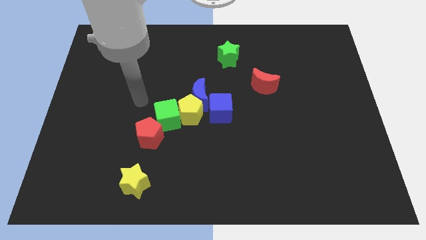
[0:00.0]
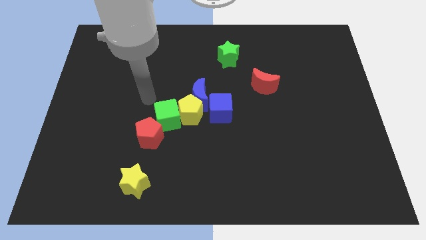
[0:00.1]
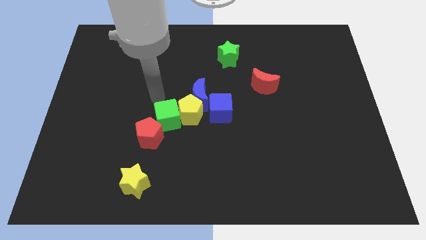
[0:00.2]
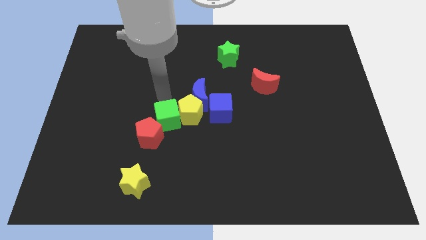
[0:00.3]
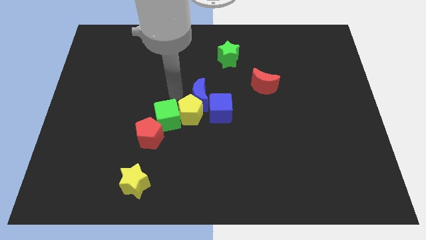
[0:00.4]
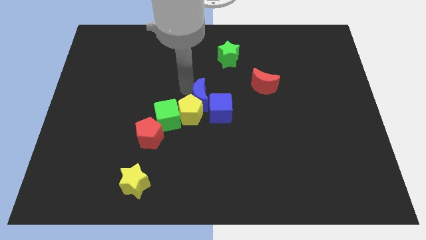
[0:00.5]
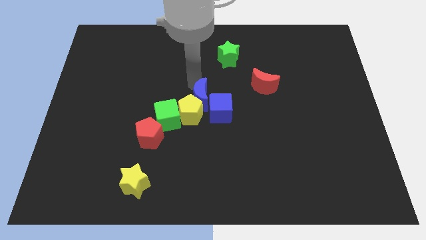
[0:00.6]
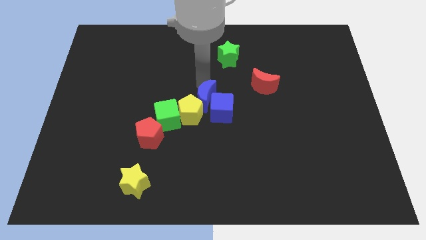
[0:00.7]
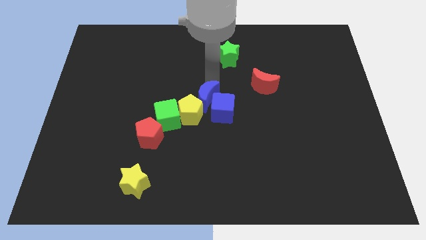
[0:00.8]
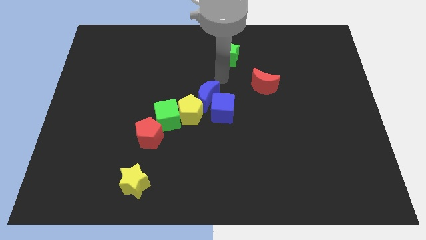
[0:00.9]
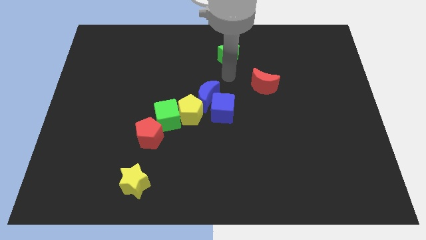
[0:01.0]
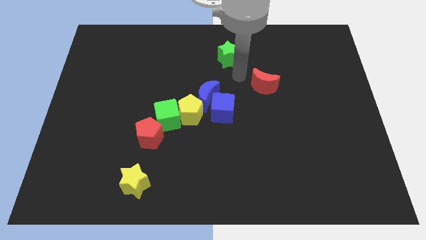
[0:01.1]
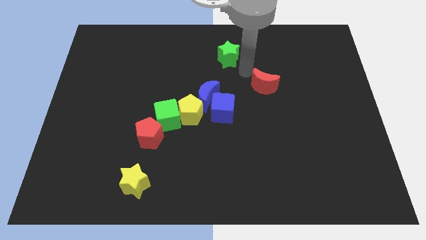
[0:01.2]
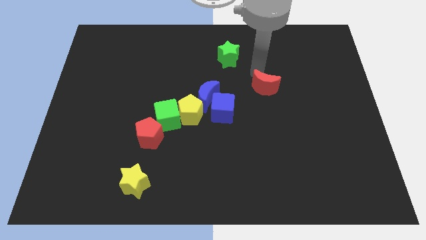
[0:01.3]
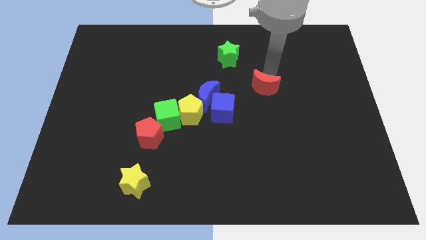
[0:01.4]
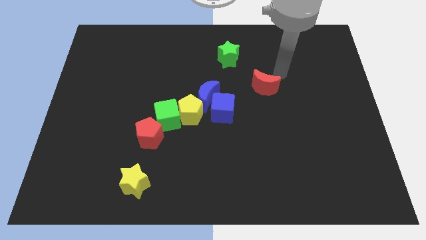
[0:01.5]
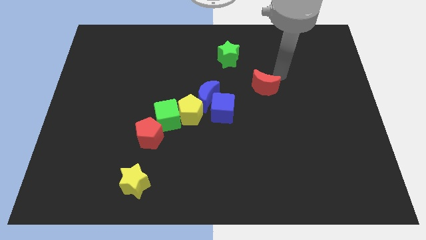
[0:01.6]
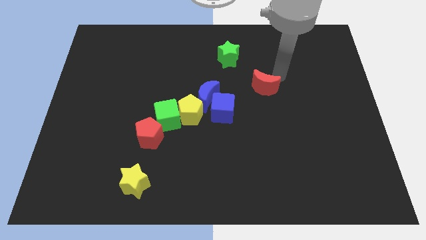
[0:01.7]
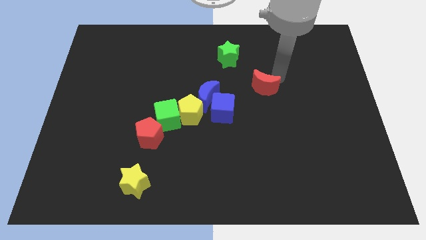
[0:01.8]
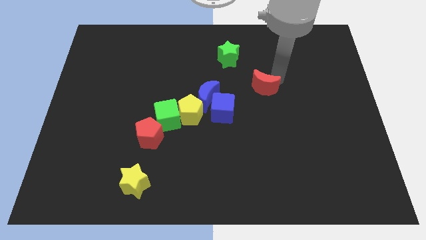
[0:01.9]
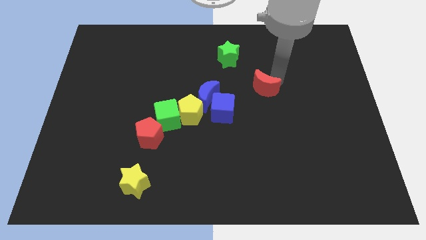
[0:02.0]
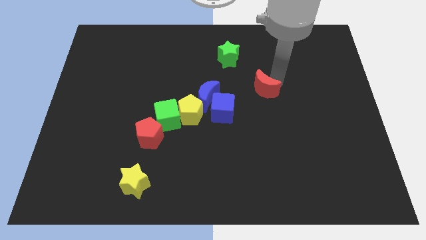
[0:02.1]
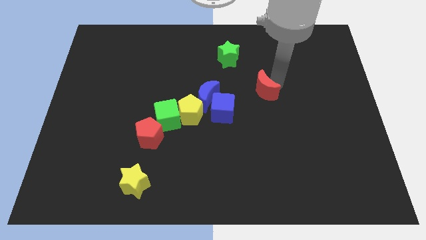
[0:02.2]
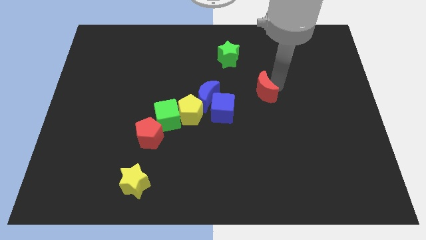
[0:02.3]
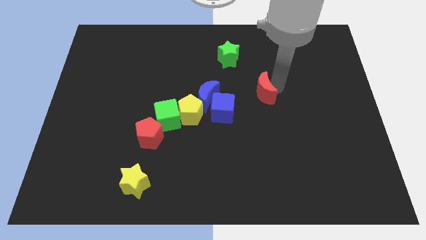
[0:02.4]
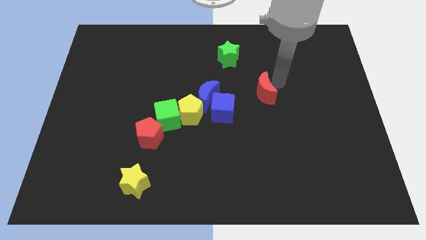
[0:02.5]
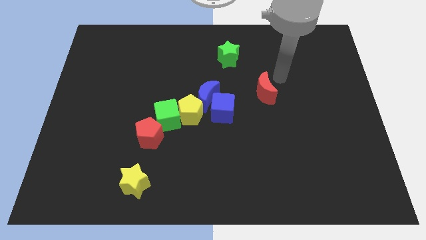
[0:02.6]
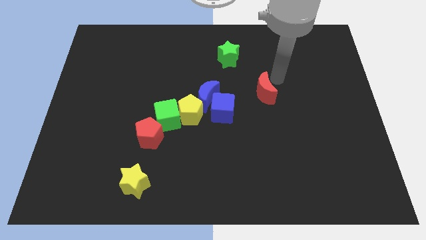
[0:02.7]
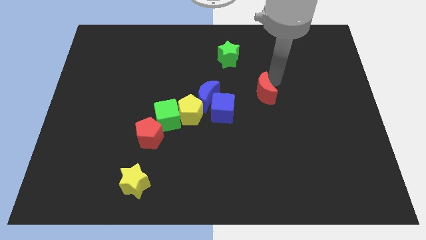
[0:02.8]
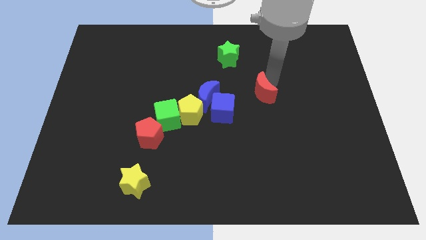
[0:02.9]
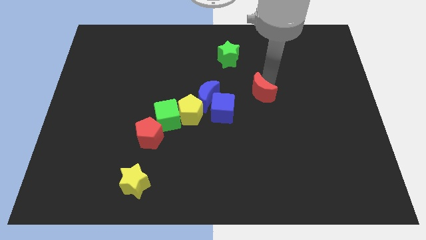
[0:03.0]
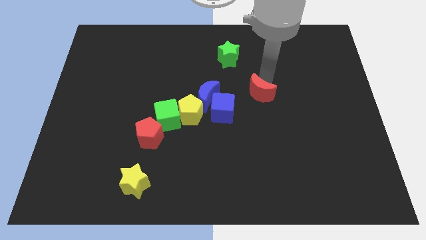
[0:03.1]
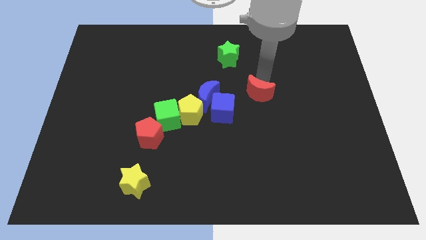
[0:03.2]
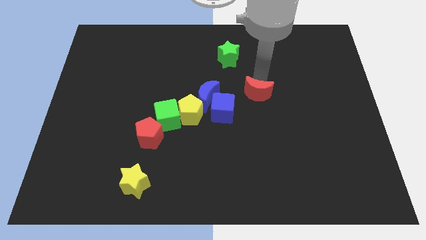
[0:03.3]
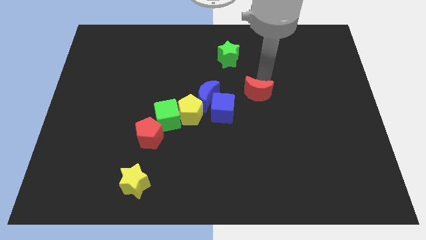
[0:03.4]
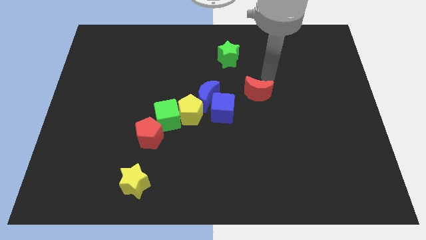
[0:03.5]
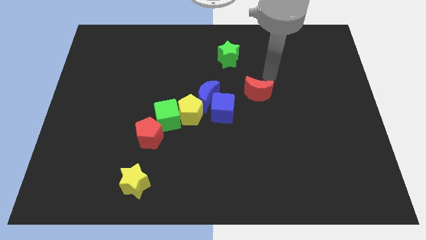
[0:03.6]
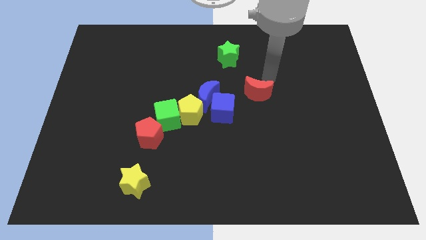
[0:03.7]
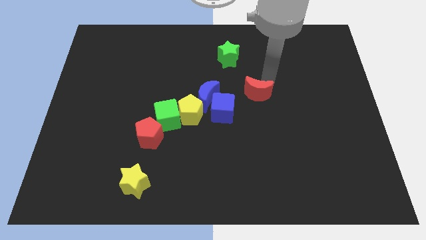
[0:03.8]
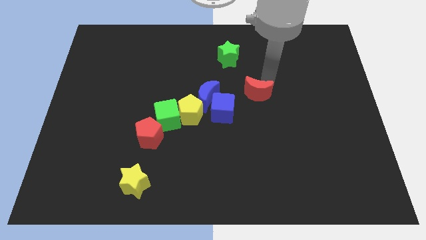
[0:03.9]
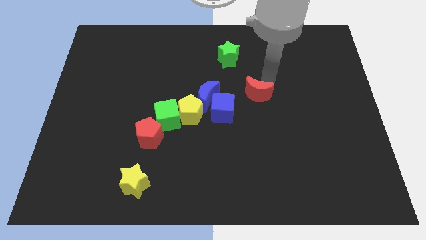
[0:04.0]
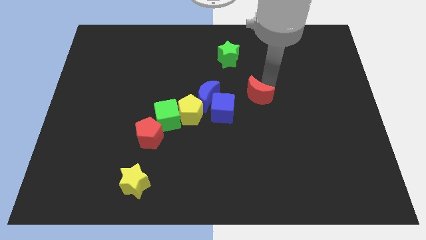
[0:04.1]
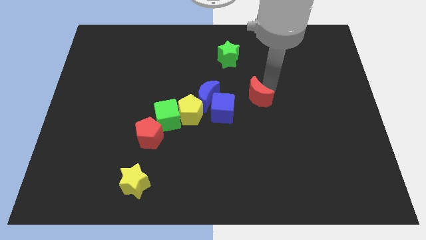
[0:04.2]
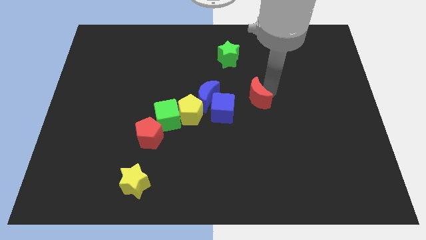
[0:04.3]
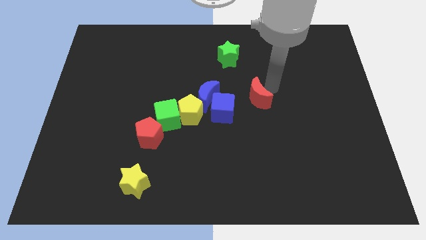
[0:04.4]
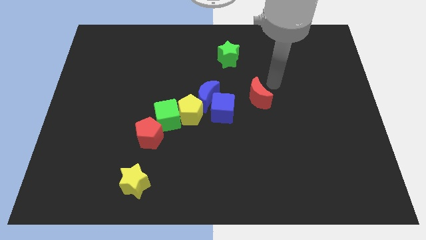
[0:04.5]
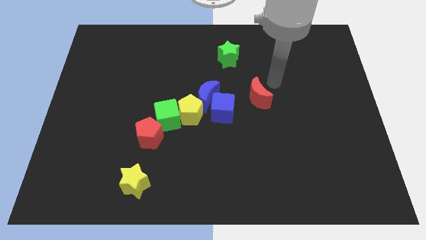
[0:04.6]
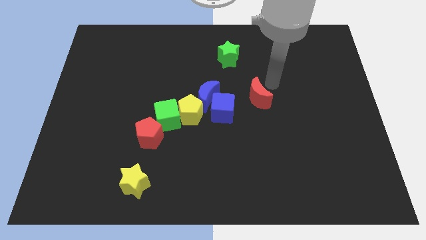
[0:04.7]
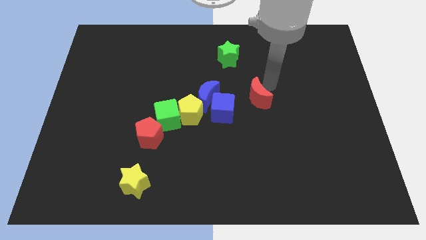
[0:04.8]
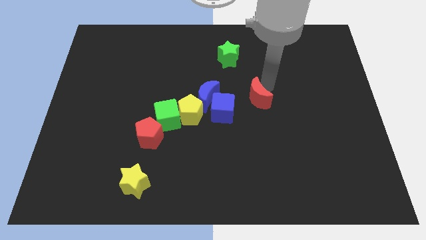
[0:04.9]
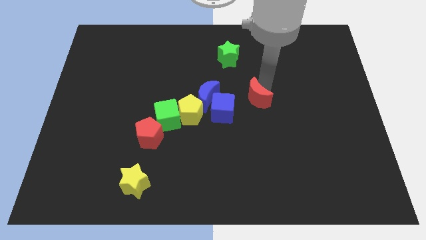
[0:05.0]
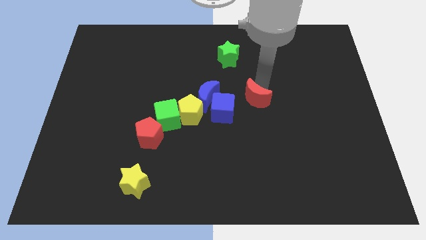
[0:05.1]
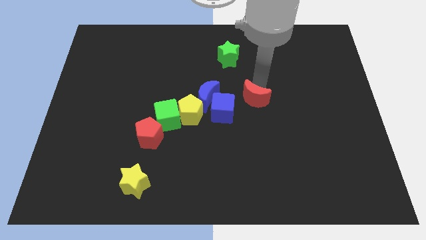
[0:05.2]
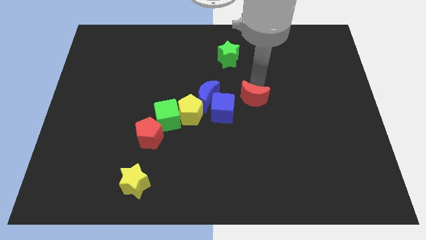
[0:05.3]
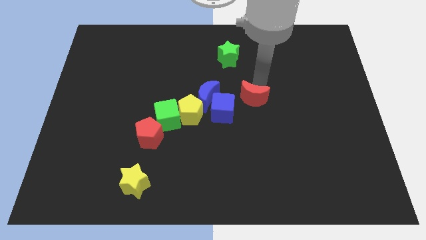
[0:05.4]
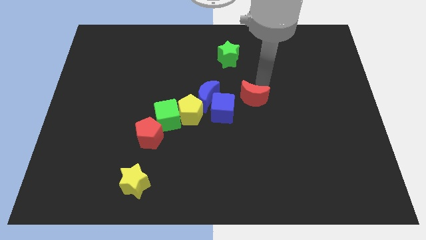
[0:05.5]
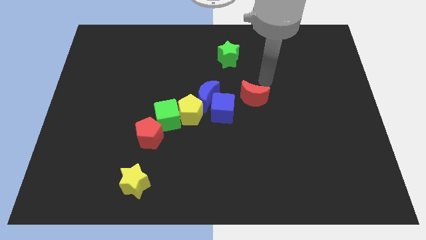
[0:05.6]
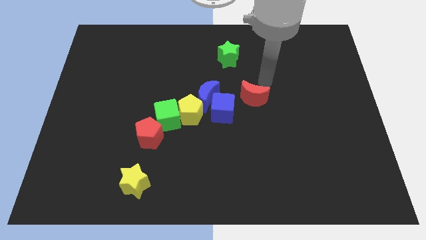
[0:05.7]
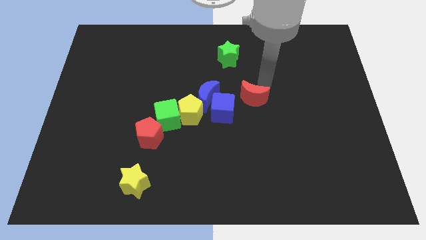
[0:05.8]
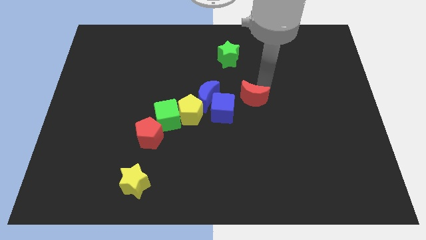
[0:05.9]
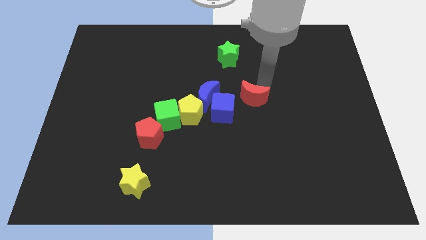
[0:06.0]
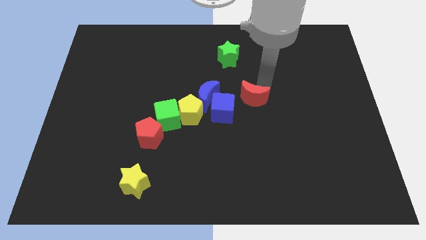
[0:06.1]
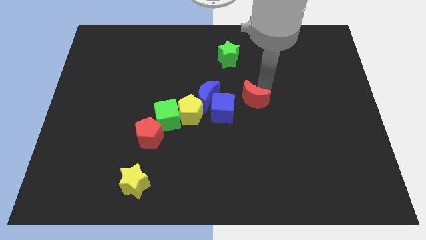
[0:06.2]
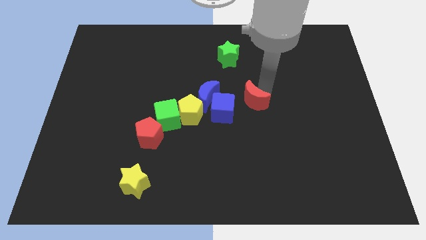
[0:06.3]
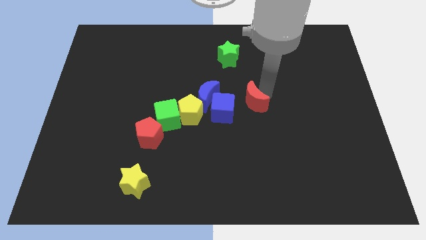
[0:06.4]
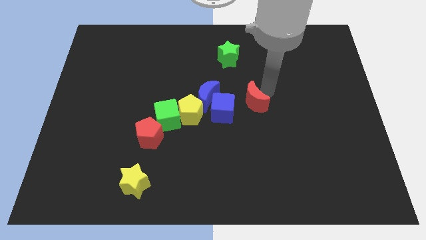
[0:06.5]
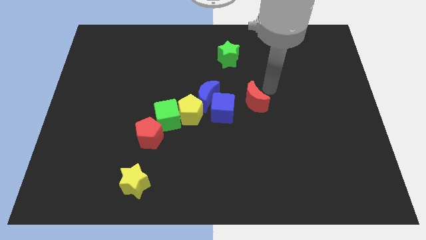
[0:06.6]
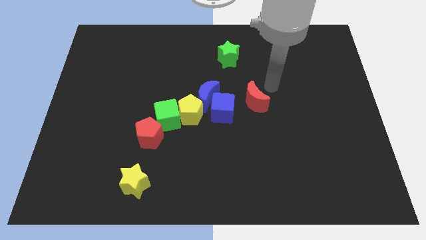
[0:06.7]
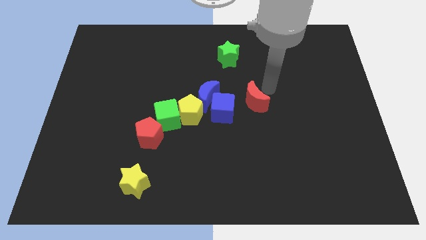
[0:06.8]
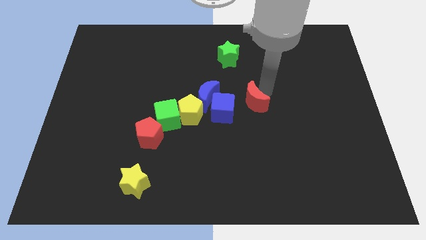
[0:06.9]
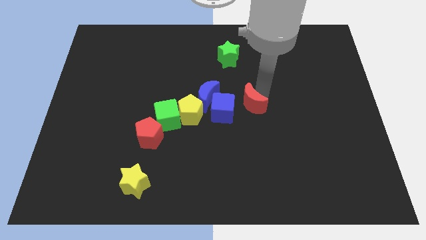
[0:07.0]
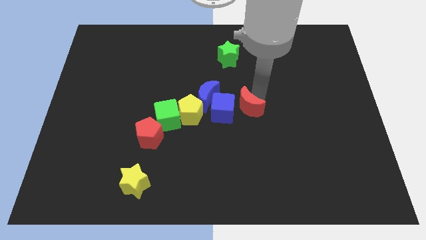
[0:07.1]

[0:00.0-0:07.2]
slide the red moon diagonally downwards and left a little

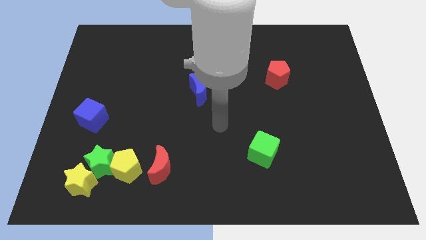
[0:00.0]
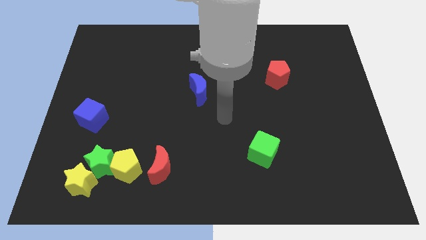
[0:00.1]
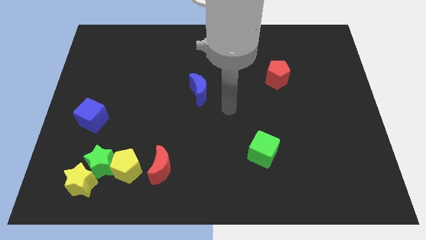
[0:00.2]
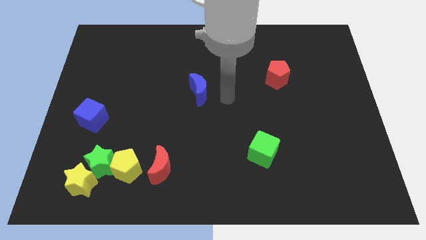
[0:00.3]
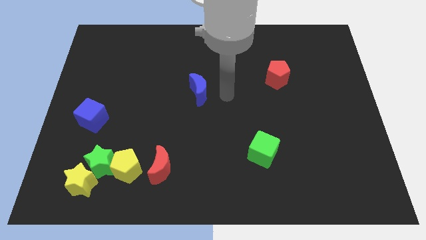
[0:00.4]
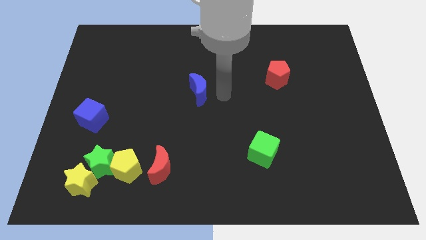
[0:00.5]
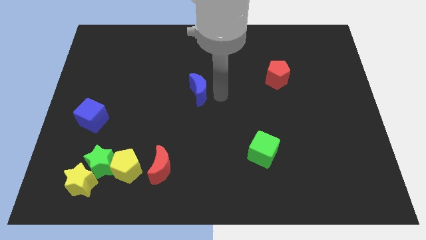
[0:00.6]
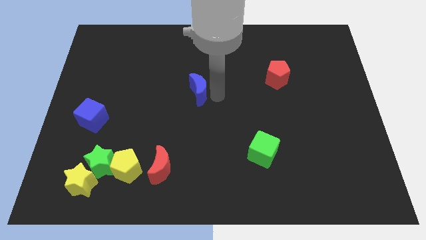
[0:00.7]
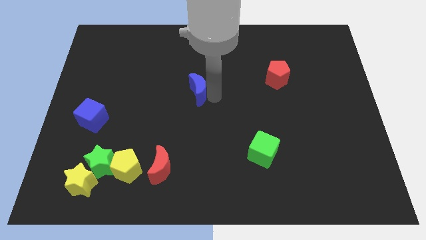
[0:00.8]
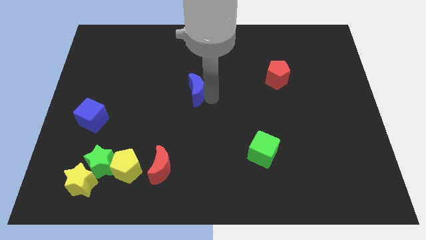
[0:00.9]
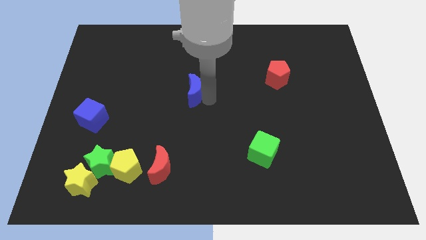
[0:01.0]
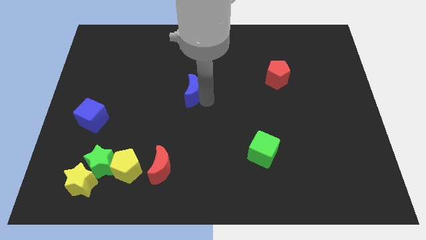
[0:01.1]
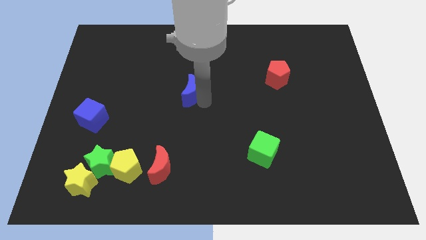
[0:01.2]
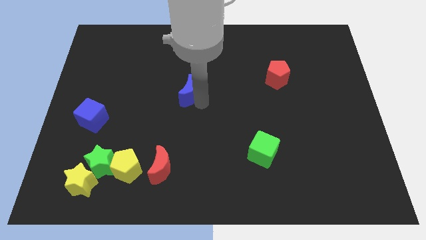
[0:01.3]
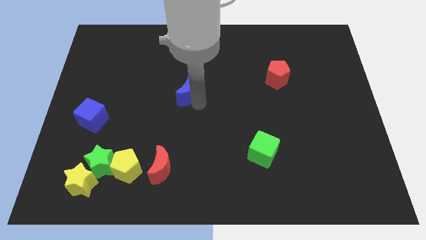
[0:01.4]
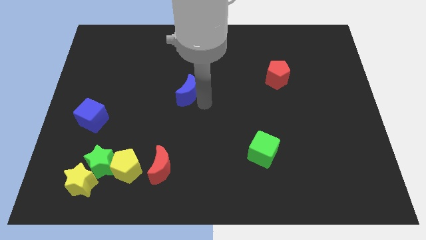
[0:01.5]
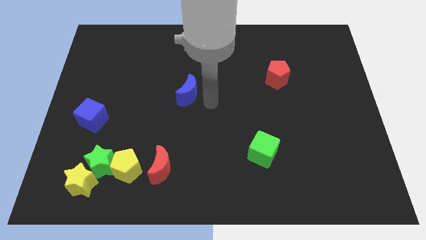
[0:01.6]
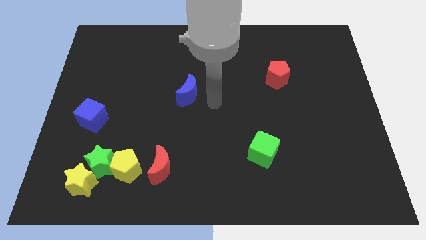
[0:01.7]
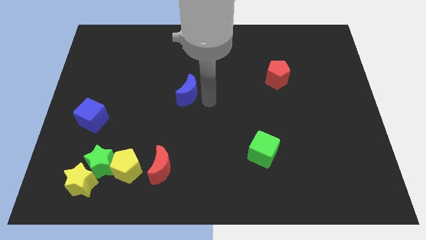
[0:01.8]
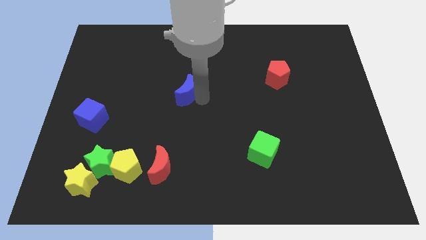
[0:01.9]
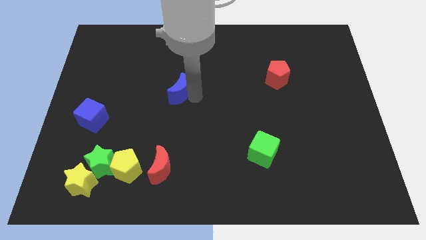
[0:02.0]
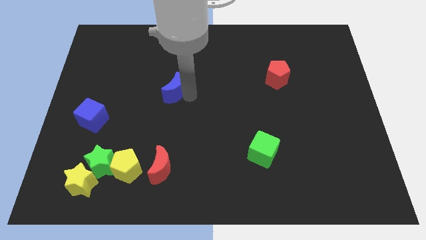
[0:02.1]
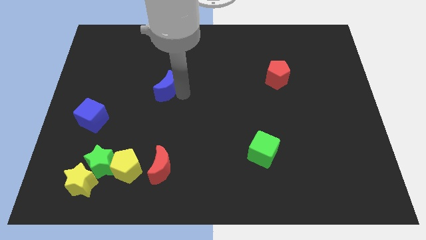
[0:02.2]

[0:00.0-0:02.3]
move the blue moon a little bit left
